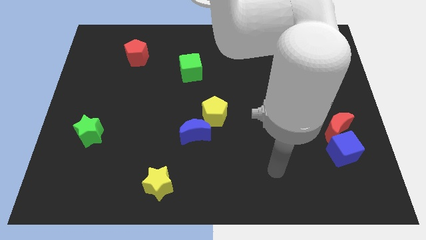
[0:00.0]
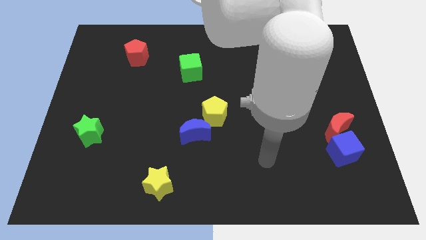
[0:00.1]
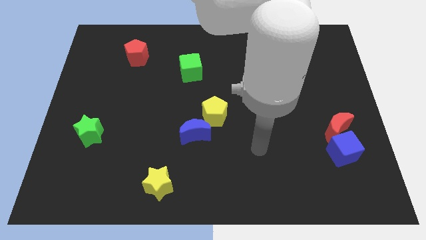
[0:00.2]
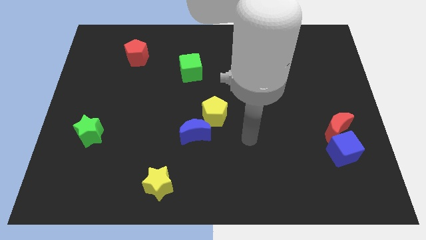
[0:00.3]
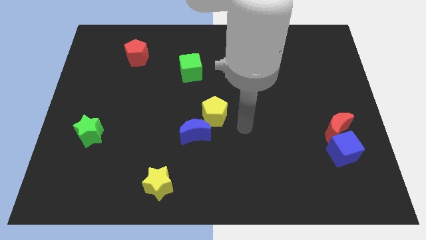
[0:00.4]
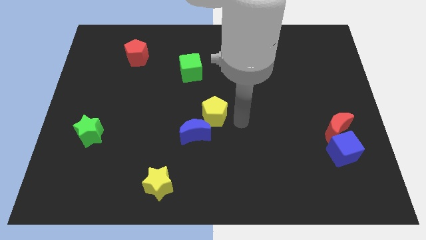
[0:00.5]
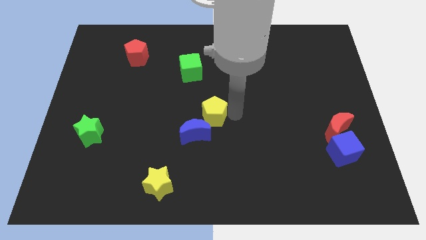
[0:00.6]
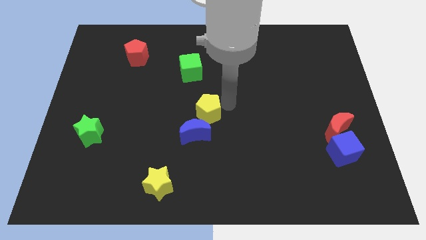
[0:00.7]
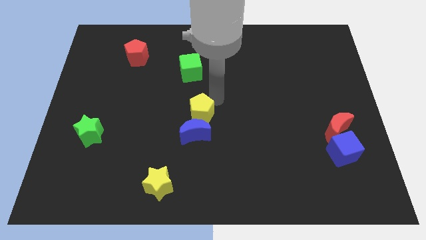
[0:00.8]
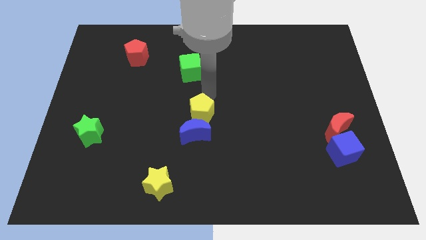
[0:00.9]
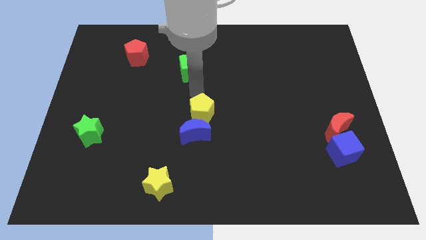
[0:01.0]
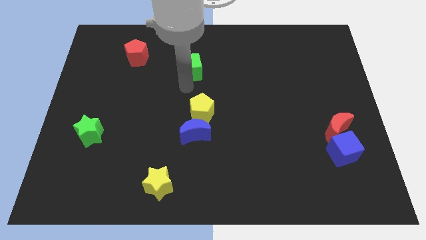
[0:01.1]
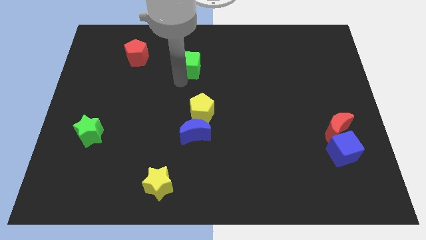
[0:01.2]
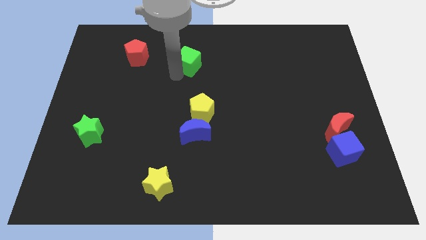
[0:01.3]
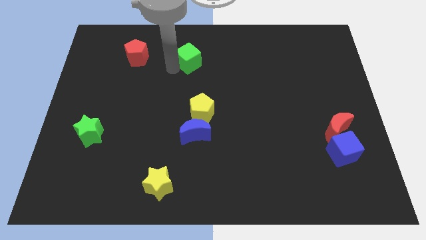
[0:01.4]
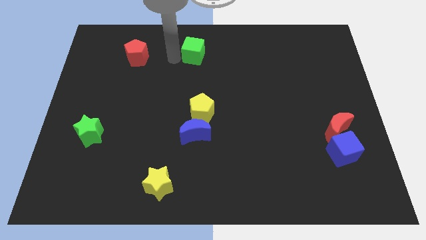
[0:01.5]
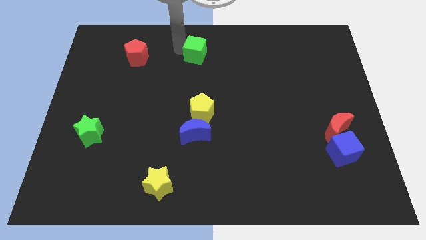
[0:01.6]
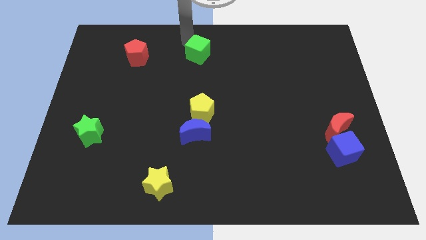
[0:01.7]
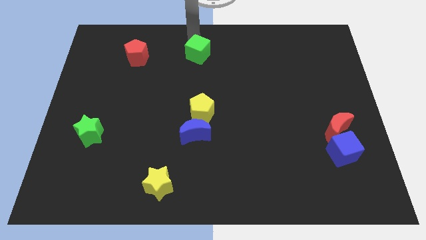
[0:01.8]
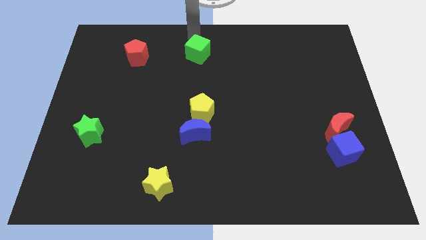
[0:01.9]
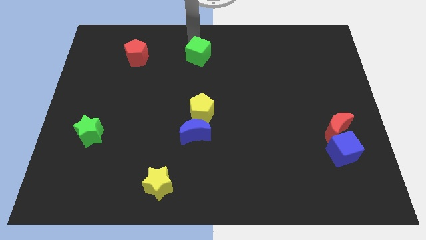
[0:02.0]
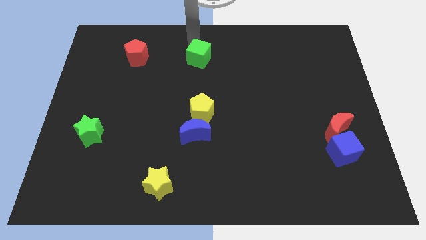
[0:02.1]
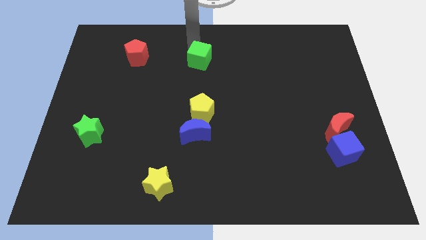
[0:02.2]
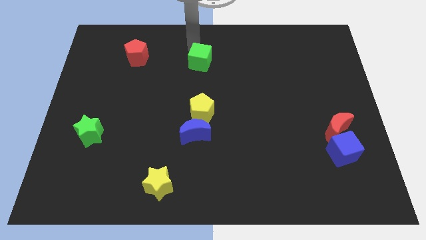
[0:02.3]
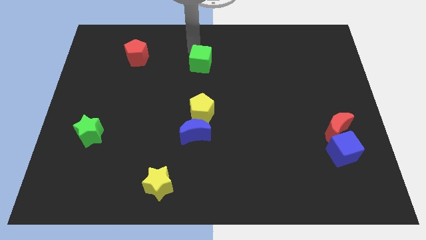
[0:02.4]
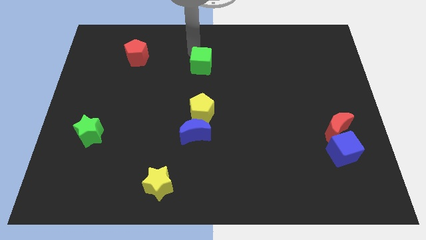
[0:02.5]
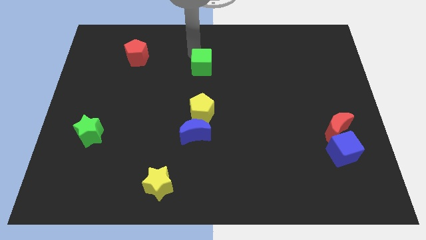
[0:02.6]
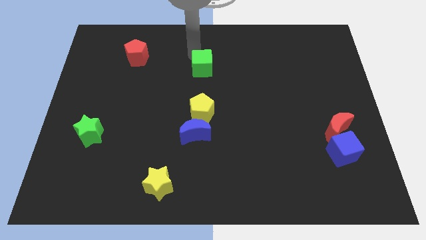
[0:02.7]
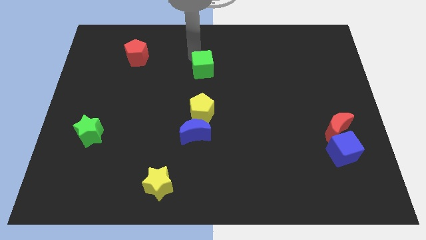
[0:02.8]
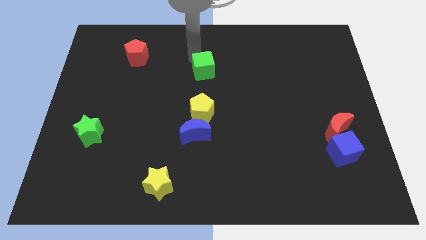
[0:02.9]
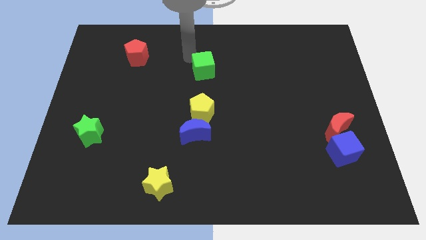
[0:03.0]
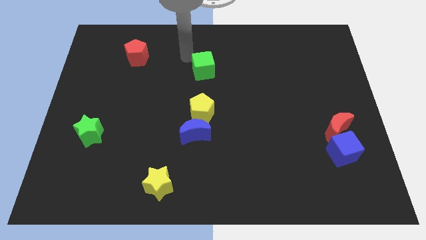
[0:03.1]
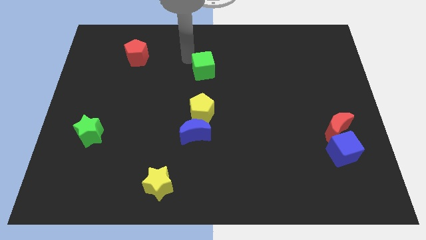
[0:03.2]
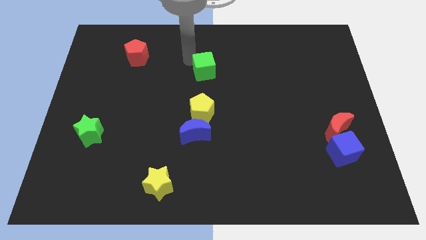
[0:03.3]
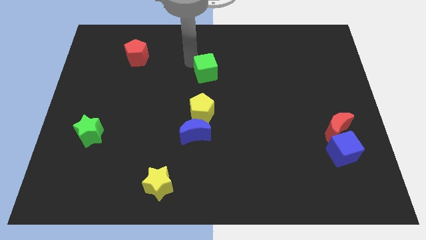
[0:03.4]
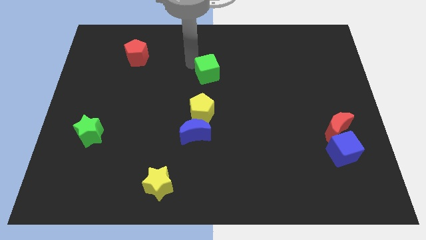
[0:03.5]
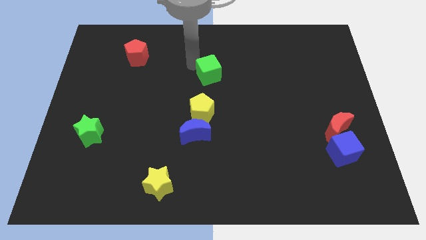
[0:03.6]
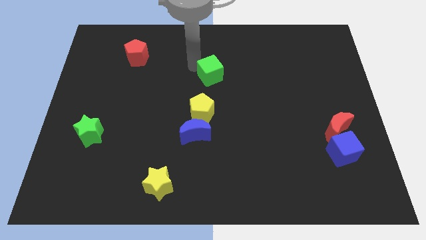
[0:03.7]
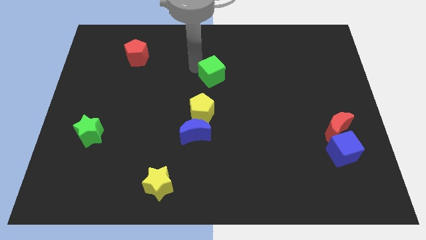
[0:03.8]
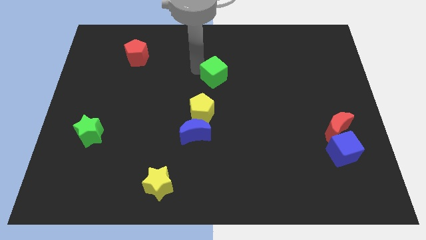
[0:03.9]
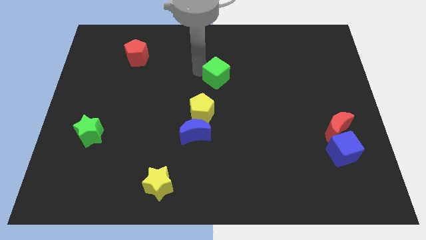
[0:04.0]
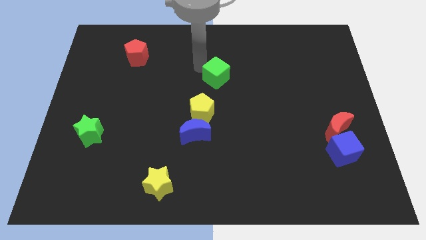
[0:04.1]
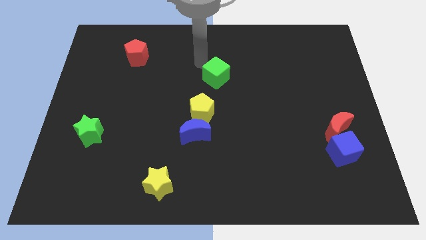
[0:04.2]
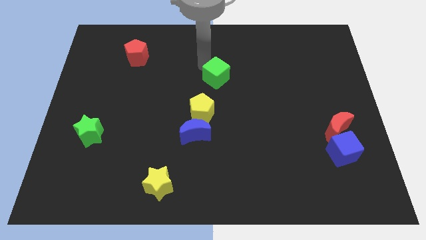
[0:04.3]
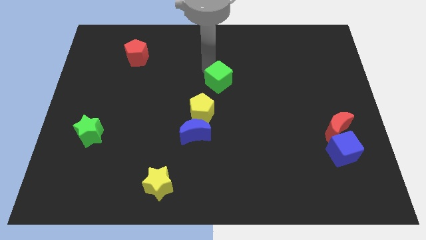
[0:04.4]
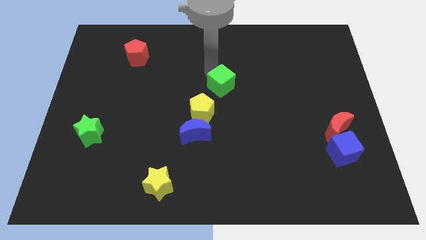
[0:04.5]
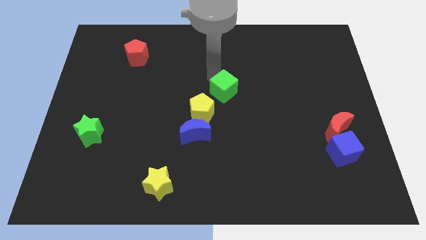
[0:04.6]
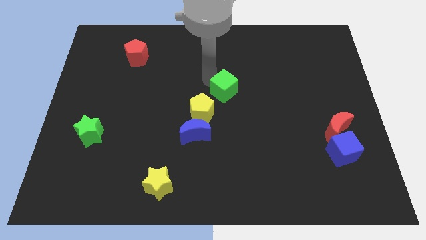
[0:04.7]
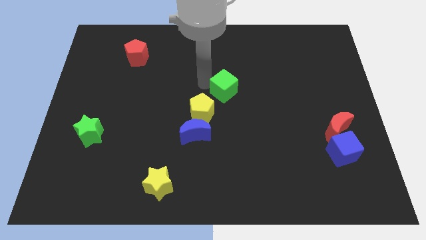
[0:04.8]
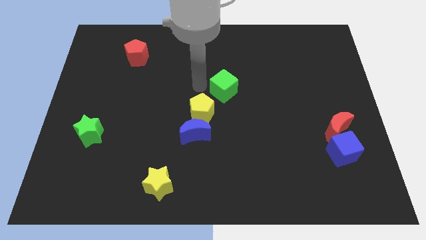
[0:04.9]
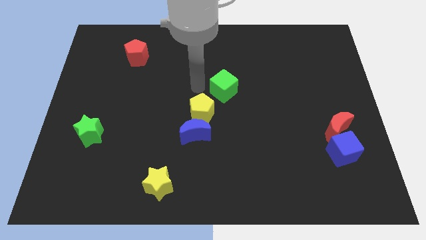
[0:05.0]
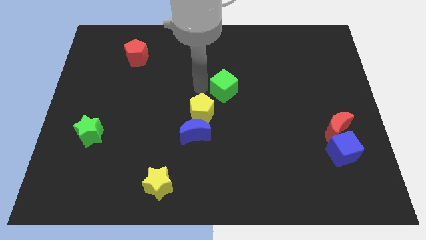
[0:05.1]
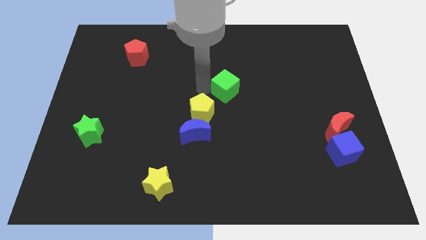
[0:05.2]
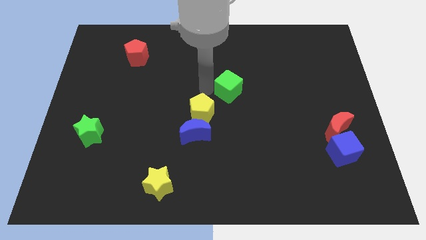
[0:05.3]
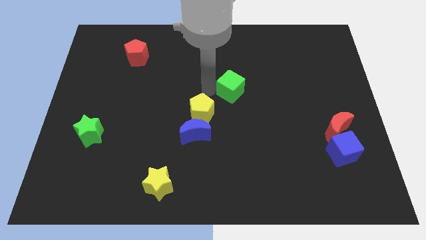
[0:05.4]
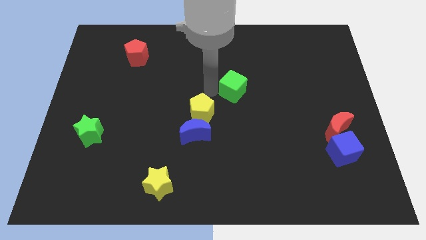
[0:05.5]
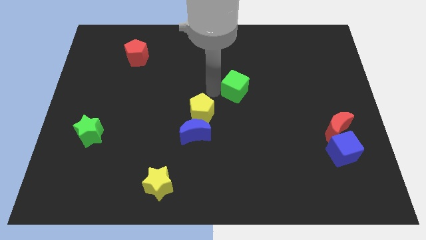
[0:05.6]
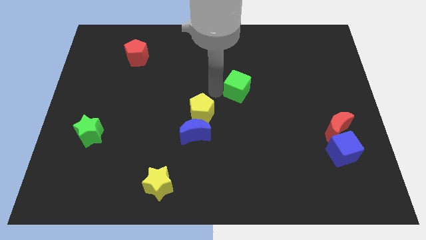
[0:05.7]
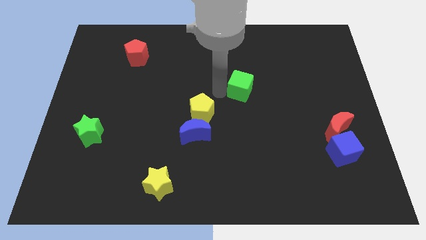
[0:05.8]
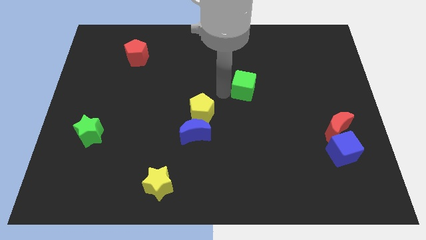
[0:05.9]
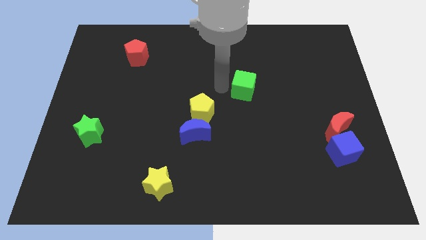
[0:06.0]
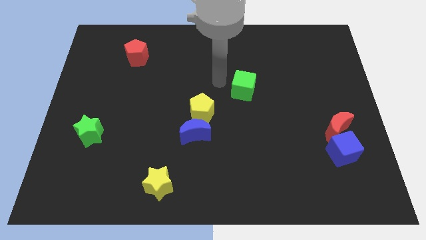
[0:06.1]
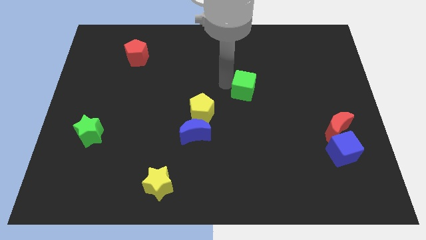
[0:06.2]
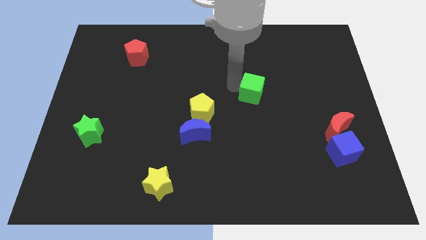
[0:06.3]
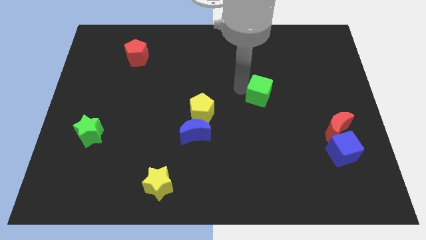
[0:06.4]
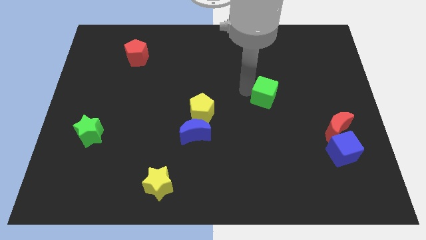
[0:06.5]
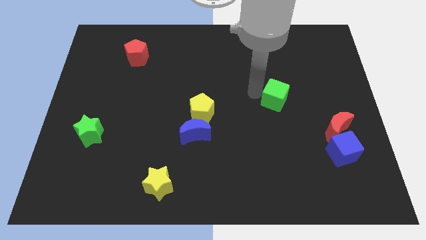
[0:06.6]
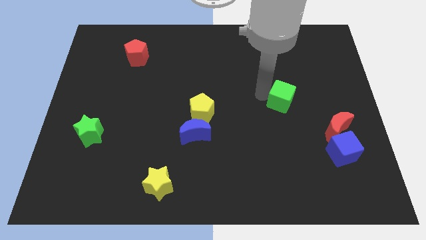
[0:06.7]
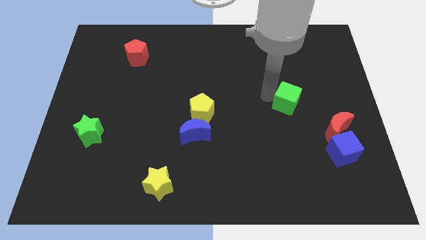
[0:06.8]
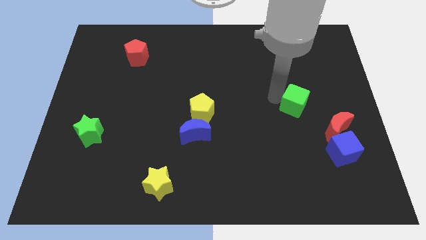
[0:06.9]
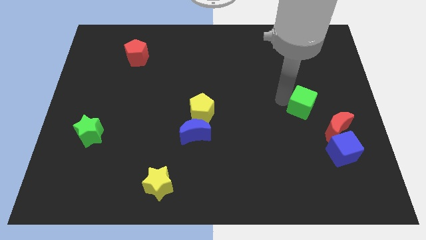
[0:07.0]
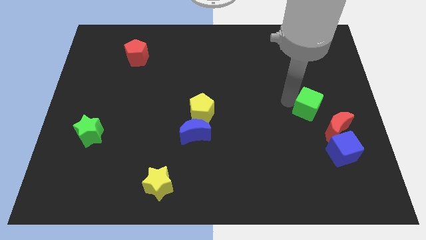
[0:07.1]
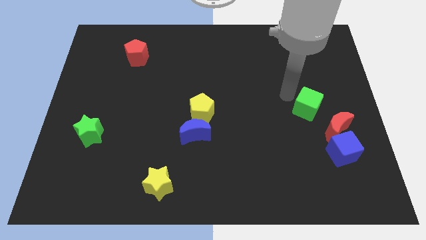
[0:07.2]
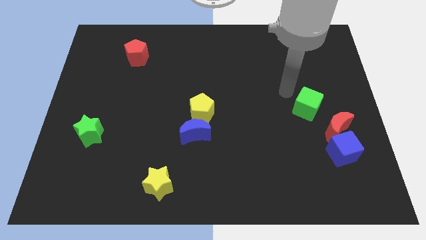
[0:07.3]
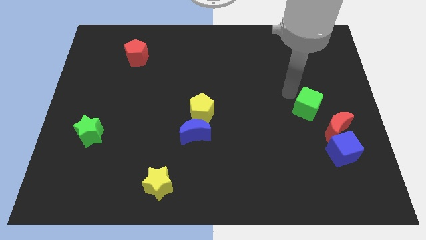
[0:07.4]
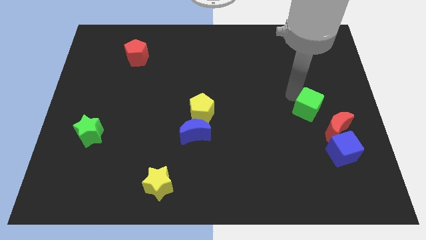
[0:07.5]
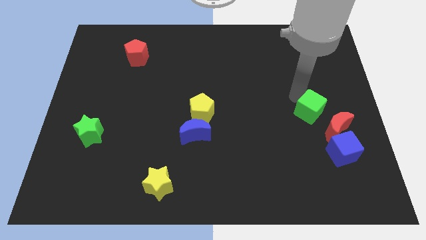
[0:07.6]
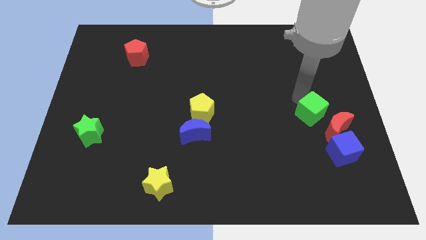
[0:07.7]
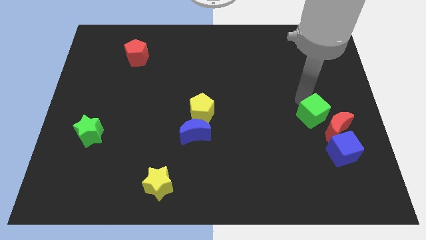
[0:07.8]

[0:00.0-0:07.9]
slide the green cube next to the red moon
